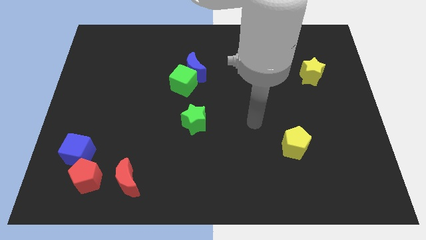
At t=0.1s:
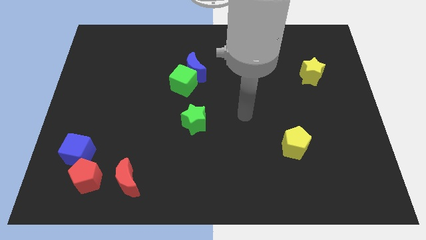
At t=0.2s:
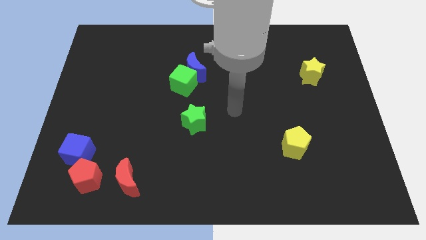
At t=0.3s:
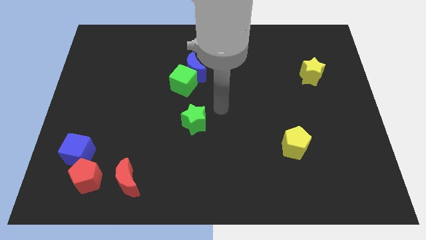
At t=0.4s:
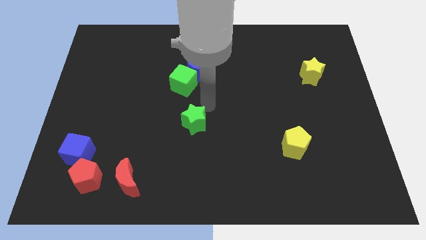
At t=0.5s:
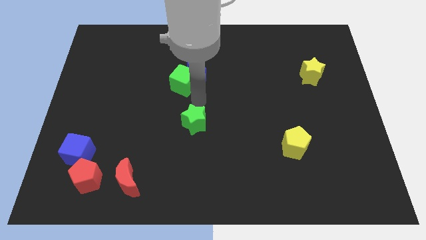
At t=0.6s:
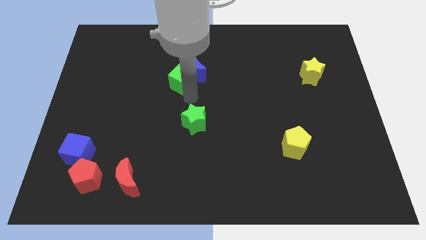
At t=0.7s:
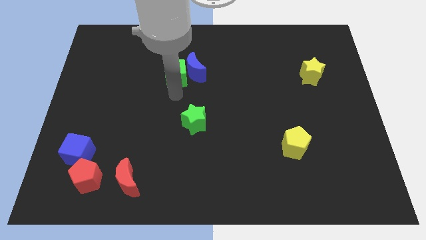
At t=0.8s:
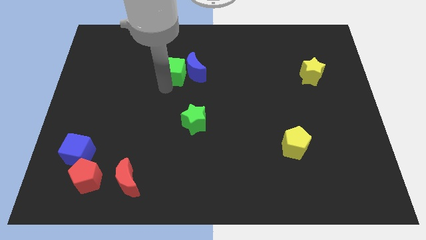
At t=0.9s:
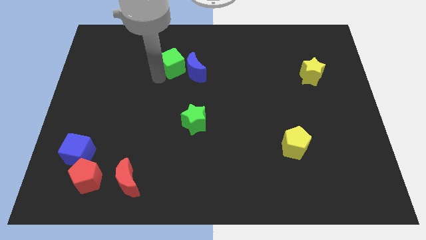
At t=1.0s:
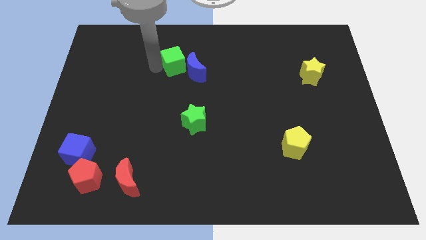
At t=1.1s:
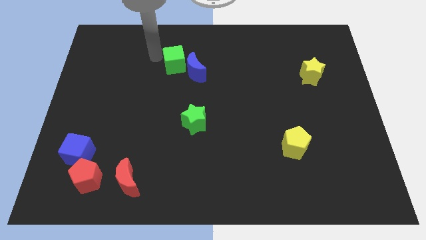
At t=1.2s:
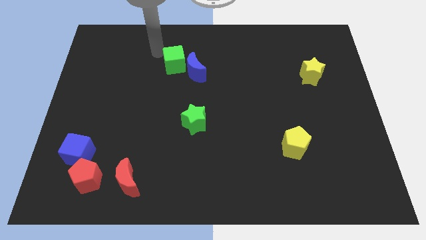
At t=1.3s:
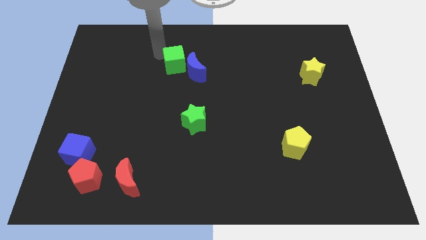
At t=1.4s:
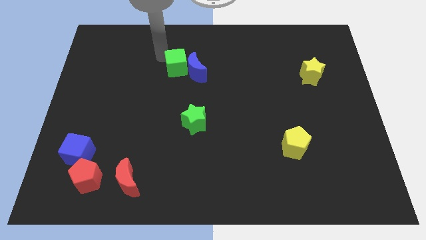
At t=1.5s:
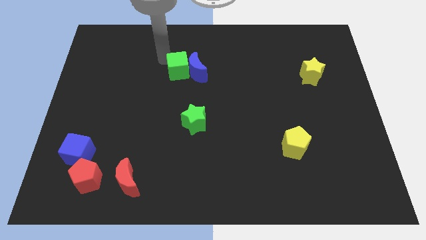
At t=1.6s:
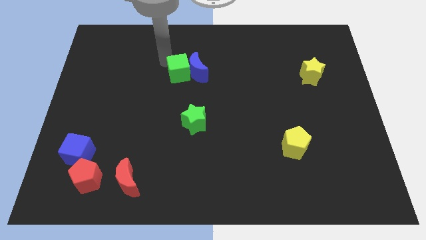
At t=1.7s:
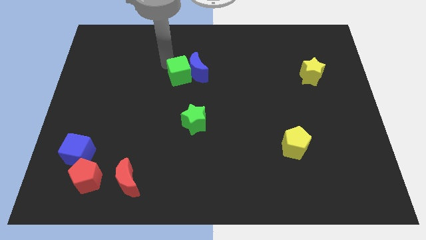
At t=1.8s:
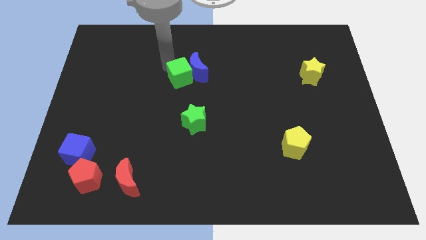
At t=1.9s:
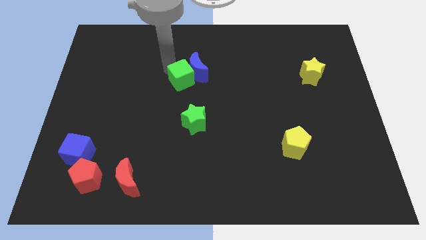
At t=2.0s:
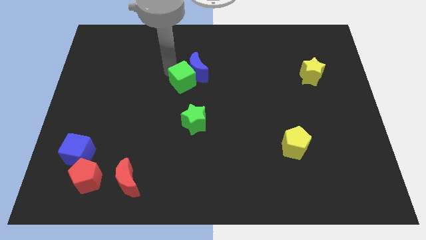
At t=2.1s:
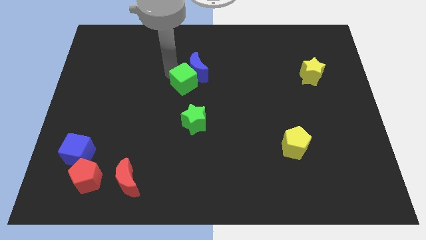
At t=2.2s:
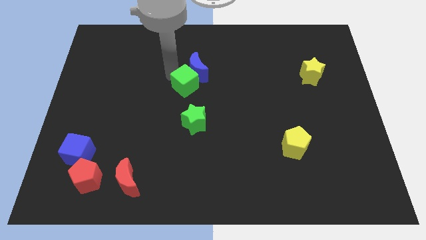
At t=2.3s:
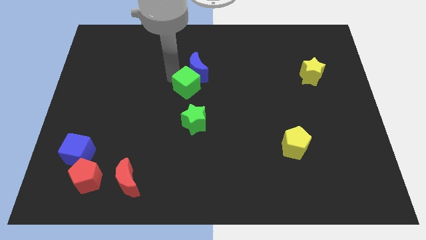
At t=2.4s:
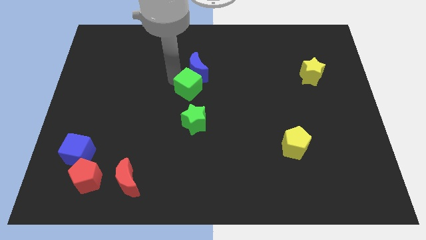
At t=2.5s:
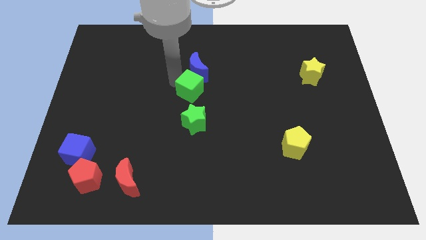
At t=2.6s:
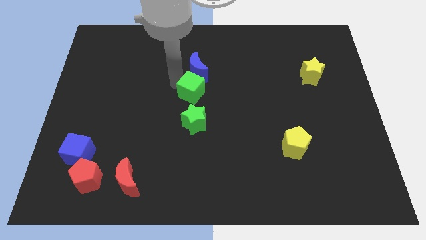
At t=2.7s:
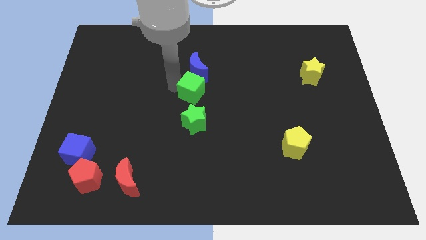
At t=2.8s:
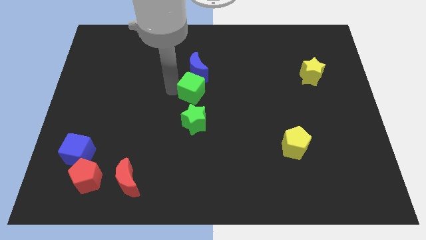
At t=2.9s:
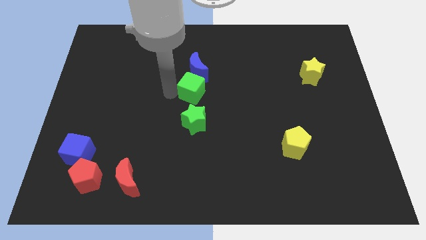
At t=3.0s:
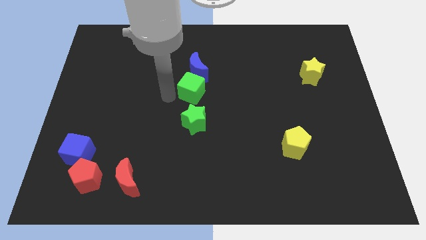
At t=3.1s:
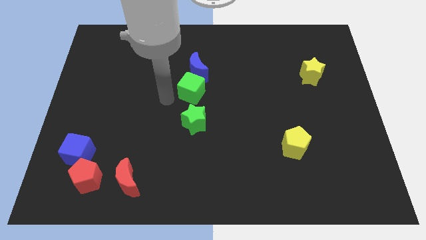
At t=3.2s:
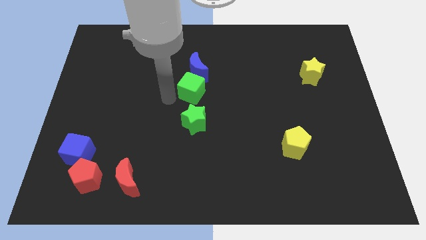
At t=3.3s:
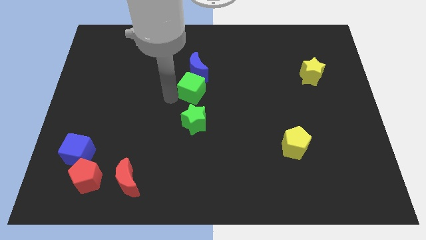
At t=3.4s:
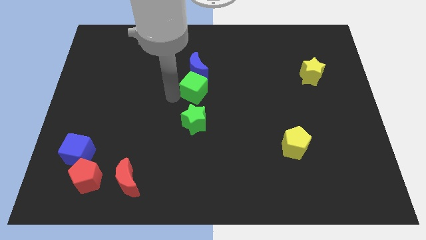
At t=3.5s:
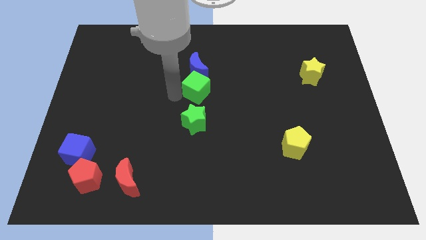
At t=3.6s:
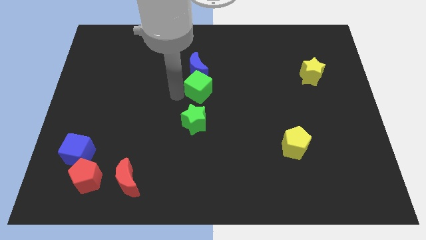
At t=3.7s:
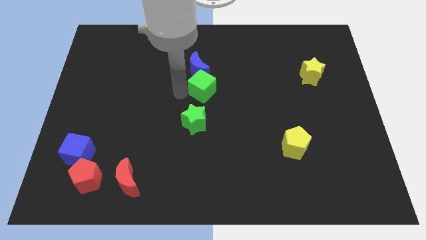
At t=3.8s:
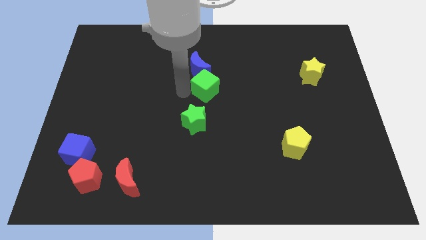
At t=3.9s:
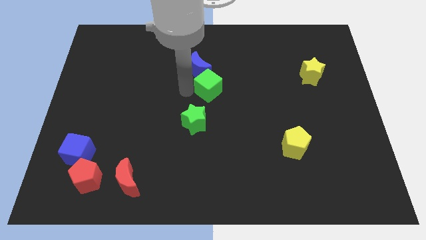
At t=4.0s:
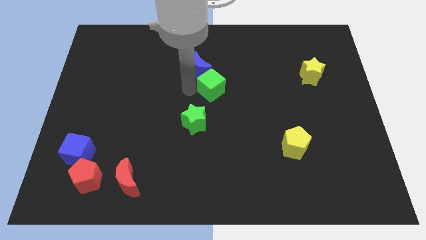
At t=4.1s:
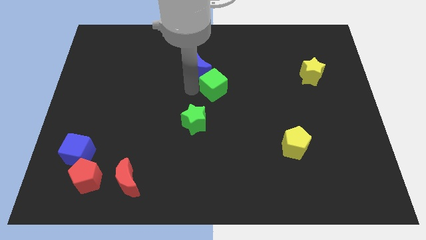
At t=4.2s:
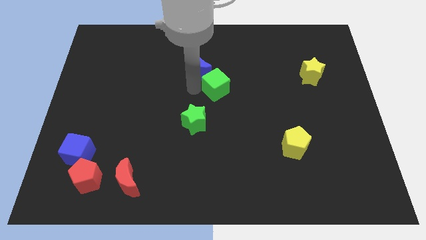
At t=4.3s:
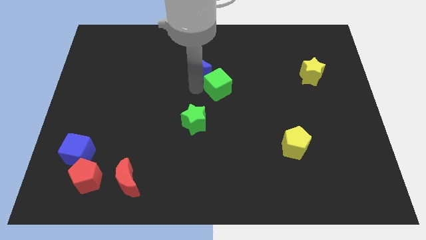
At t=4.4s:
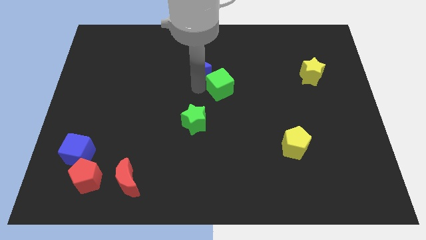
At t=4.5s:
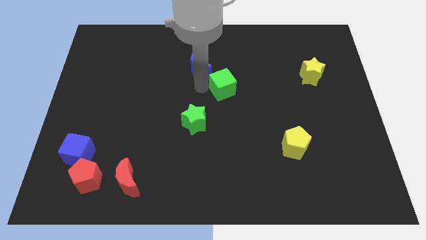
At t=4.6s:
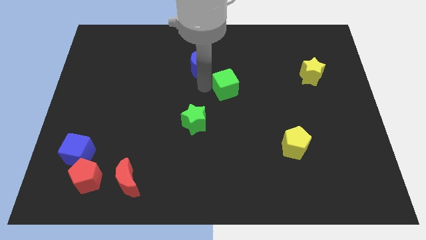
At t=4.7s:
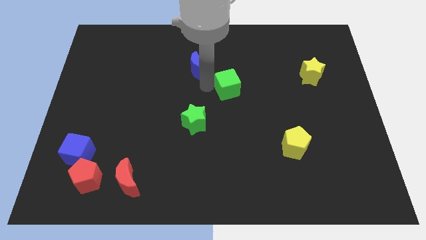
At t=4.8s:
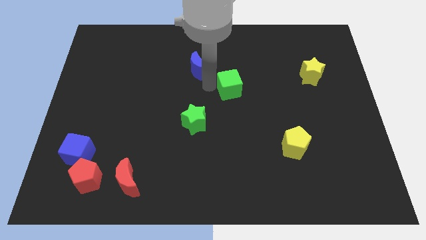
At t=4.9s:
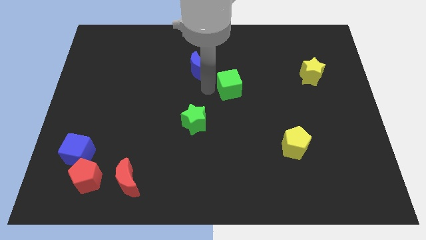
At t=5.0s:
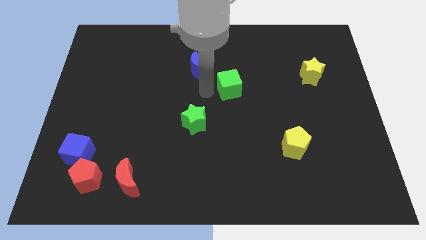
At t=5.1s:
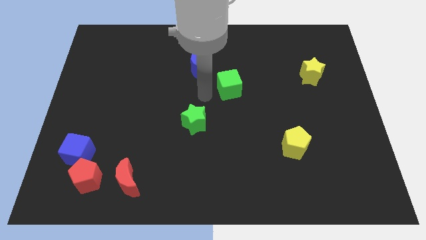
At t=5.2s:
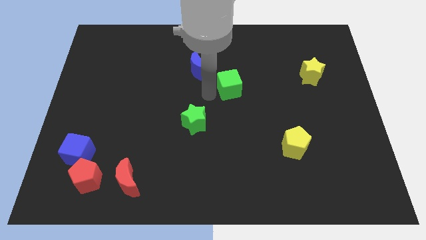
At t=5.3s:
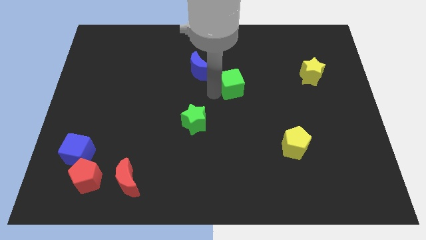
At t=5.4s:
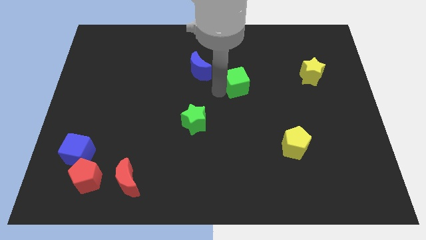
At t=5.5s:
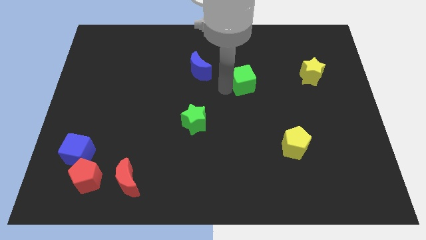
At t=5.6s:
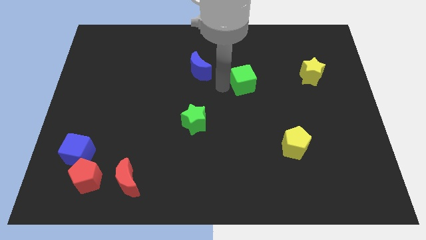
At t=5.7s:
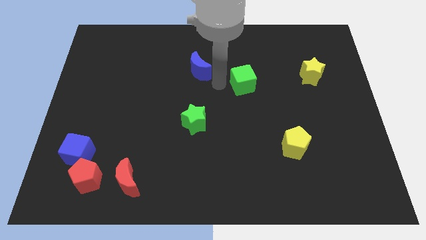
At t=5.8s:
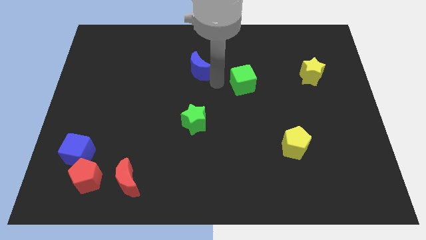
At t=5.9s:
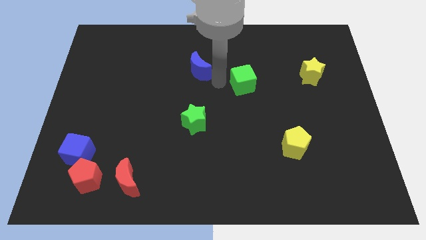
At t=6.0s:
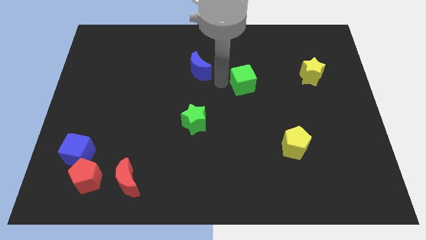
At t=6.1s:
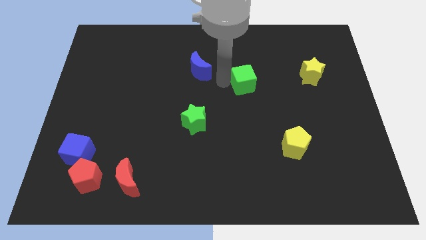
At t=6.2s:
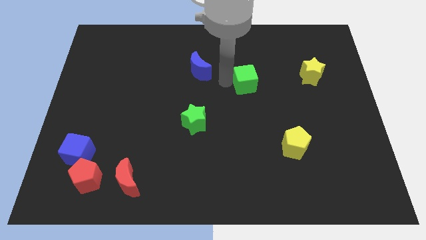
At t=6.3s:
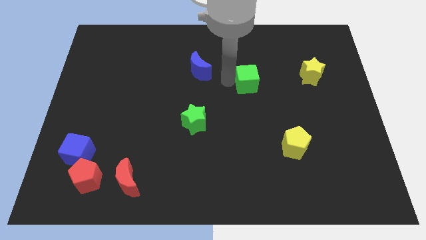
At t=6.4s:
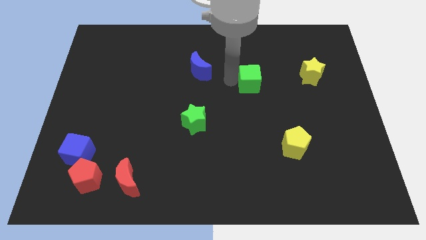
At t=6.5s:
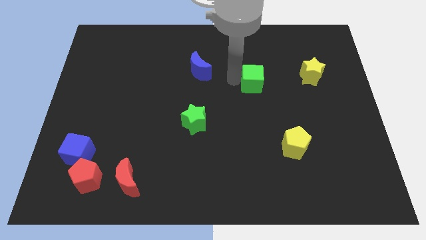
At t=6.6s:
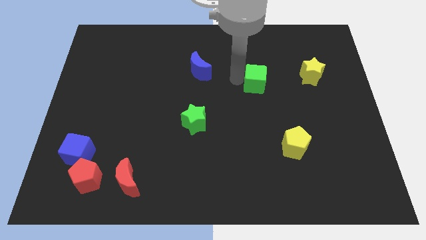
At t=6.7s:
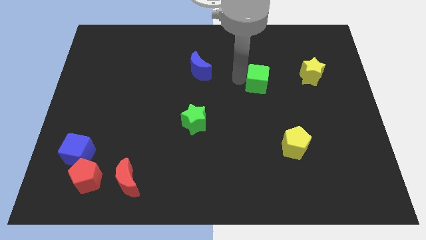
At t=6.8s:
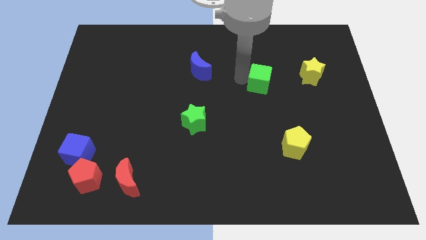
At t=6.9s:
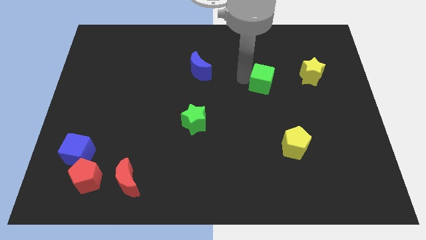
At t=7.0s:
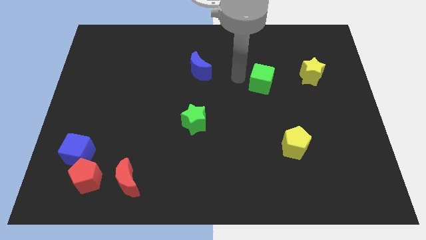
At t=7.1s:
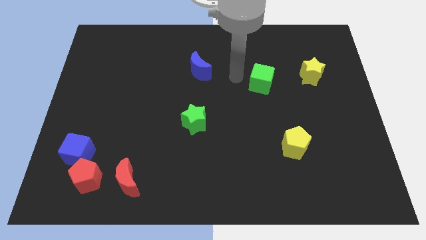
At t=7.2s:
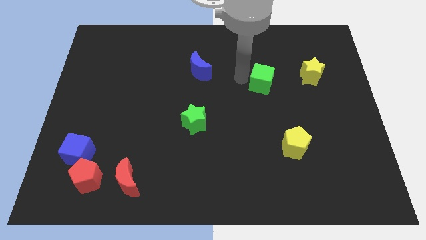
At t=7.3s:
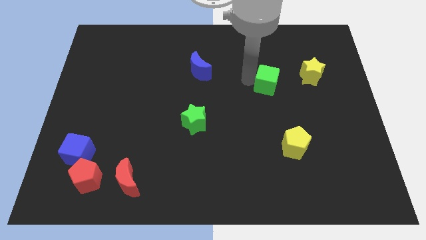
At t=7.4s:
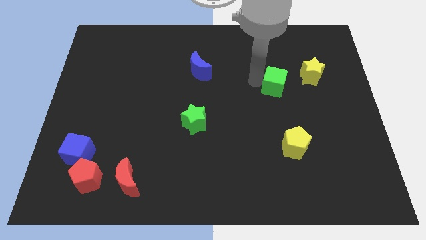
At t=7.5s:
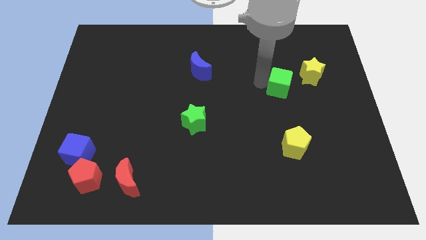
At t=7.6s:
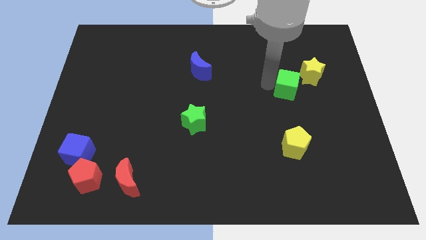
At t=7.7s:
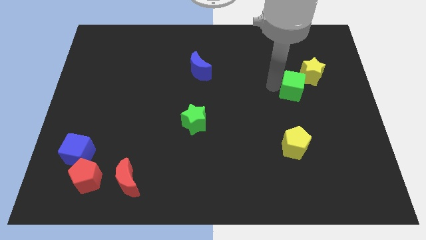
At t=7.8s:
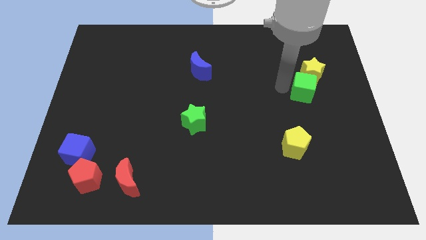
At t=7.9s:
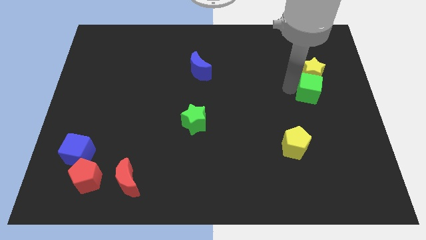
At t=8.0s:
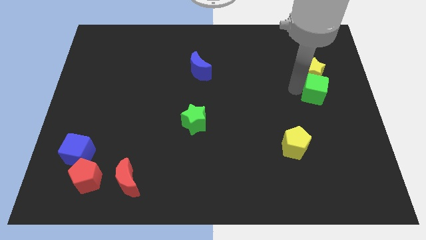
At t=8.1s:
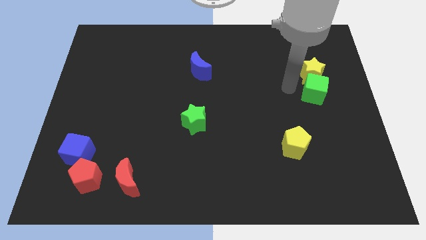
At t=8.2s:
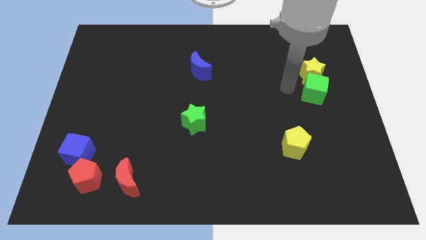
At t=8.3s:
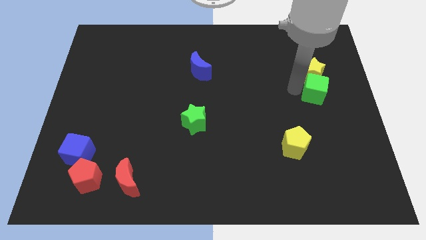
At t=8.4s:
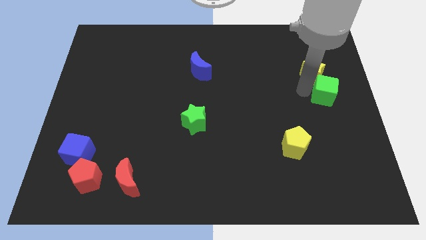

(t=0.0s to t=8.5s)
move the green cube to the right side
